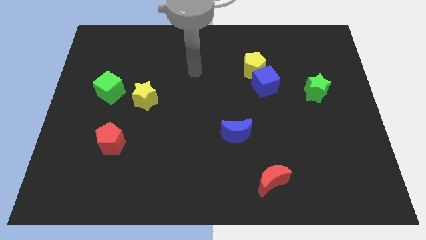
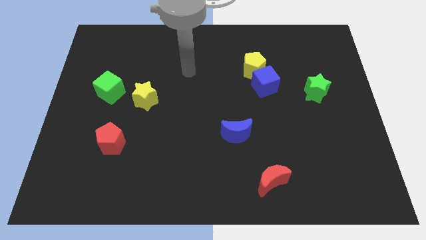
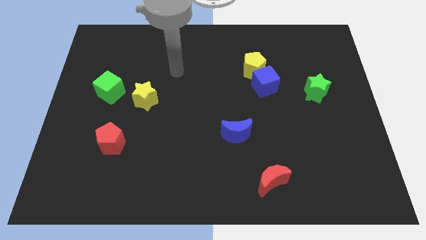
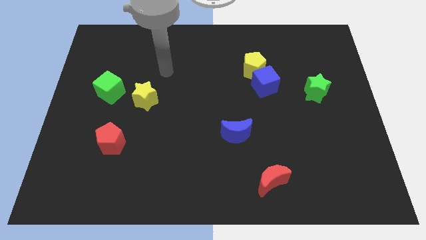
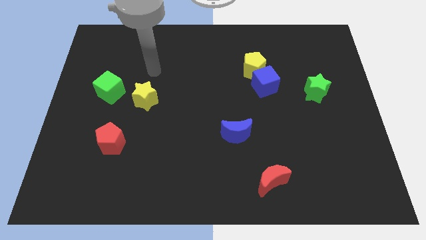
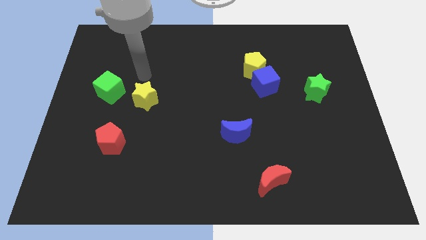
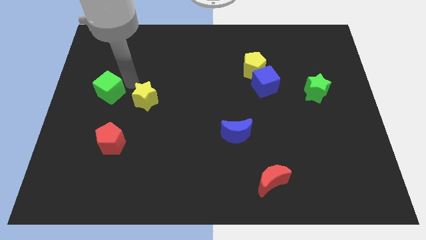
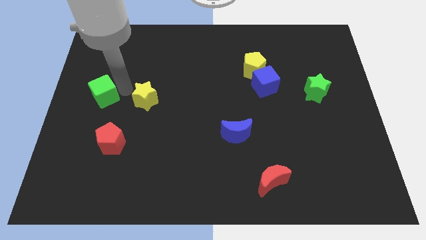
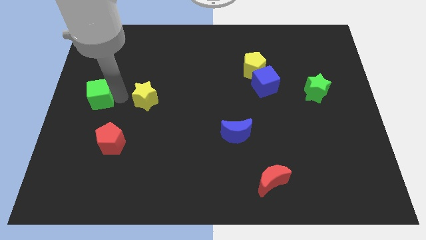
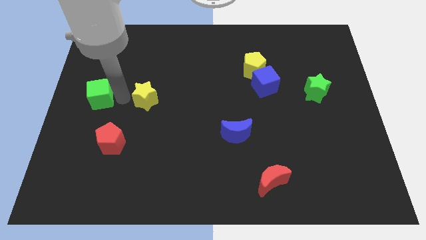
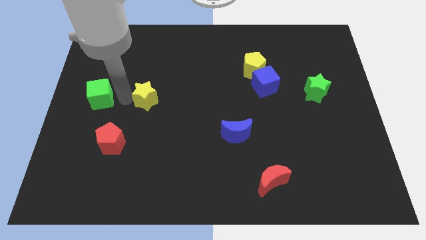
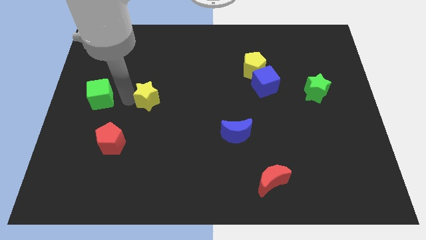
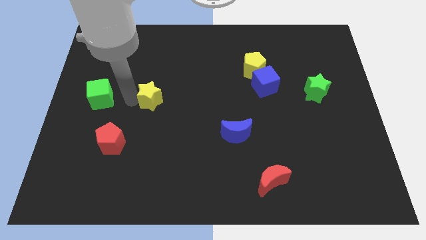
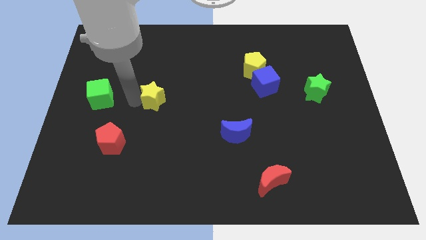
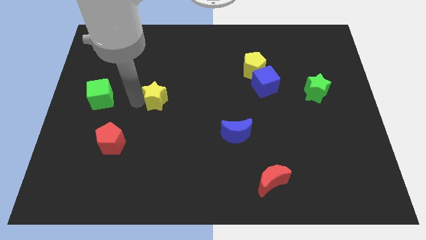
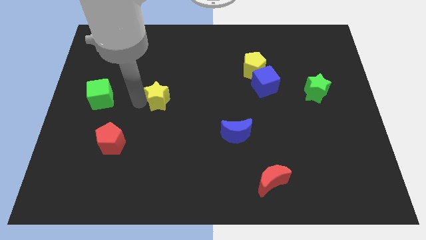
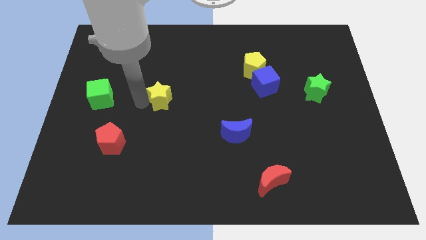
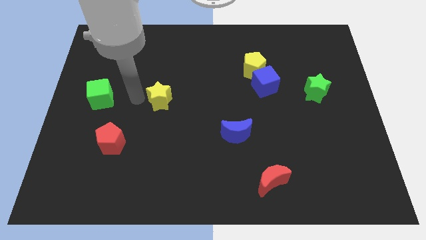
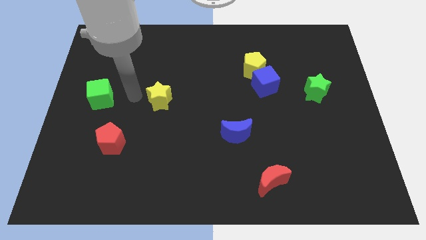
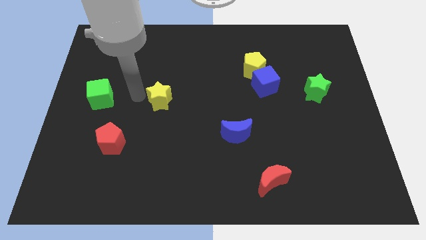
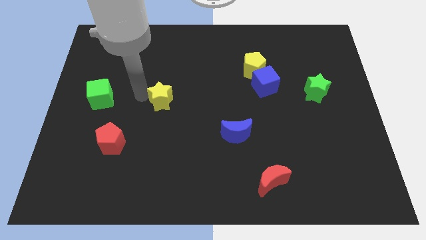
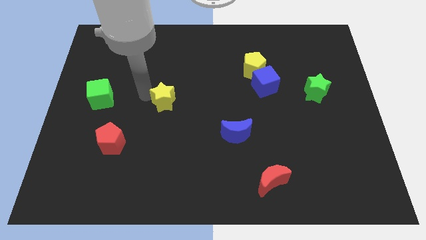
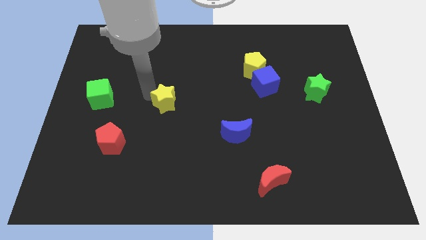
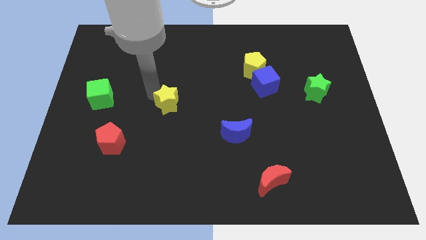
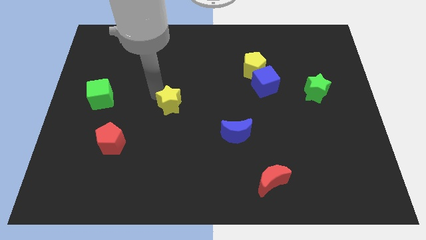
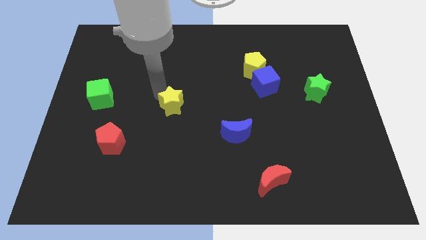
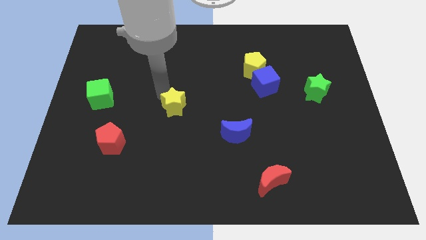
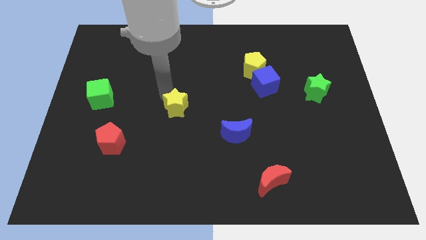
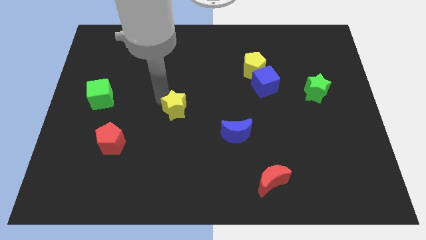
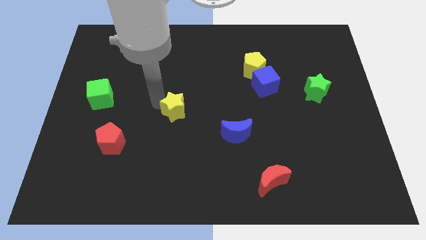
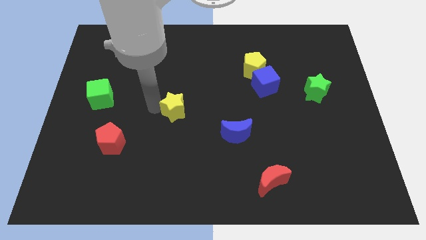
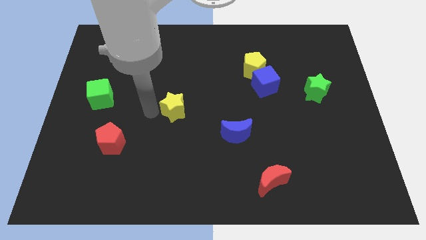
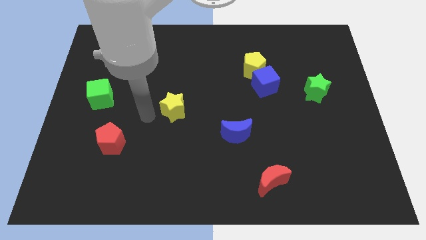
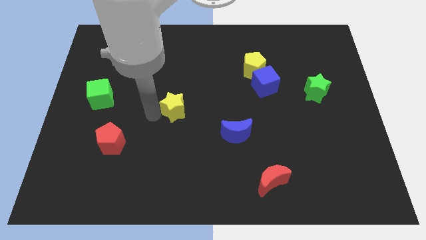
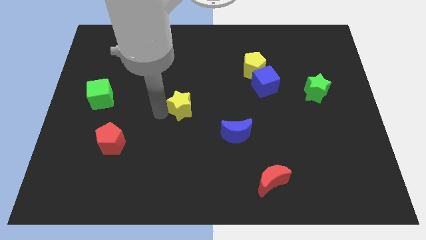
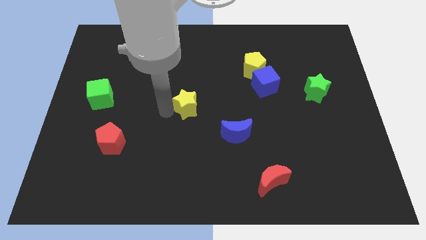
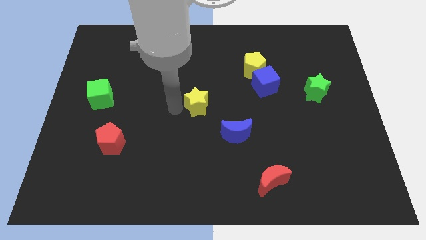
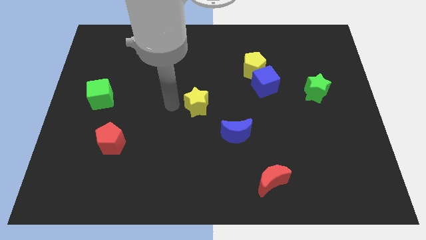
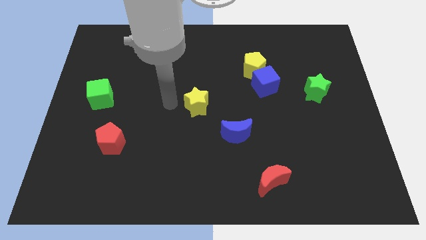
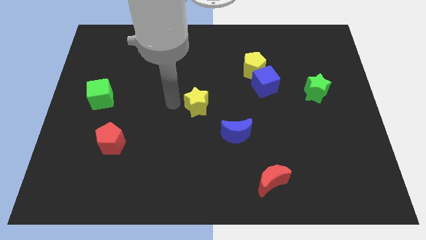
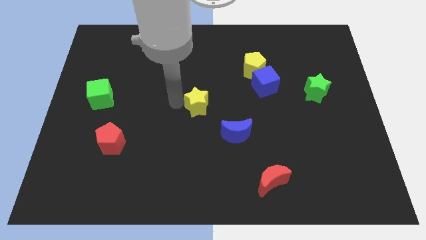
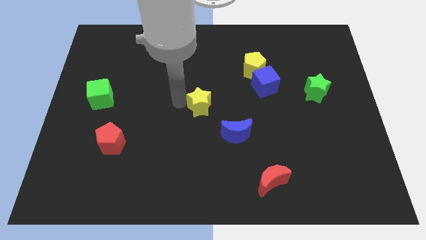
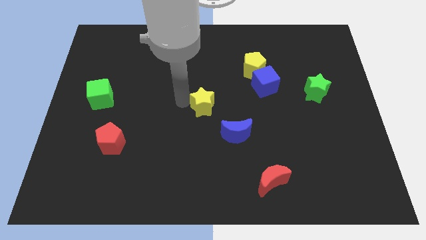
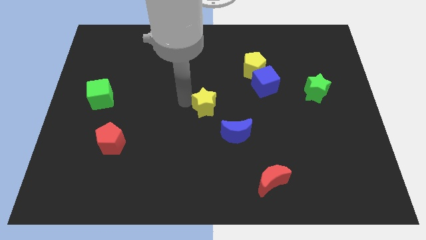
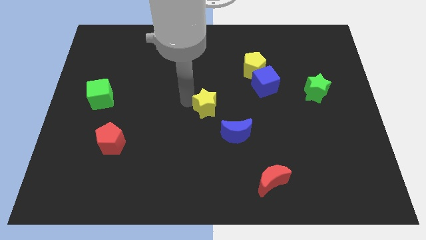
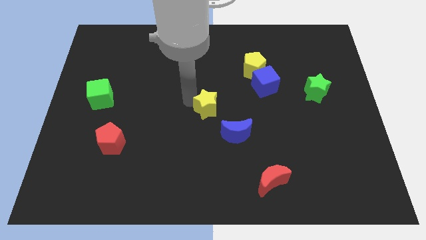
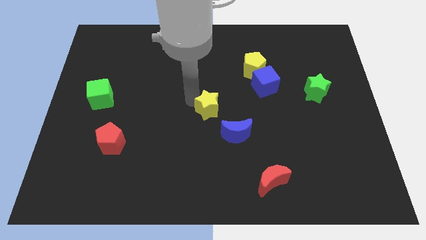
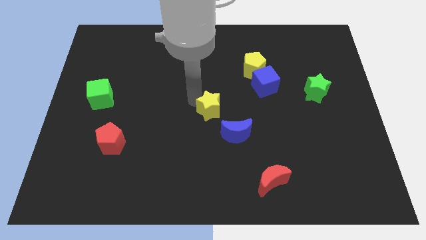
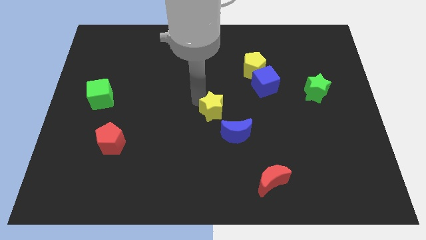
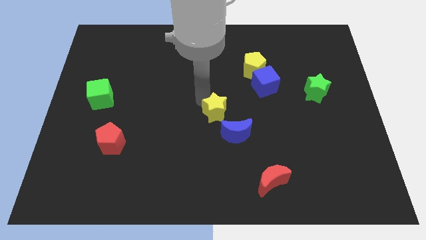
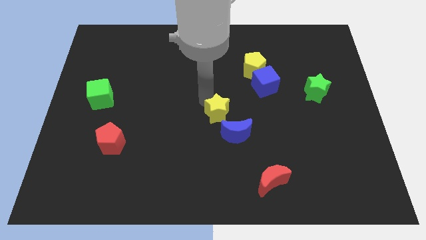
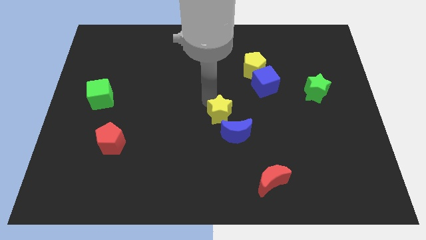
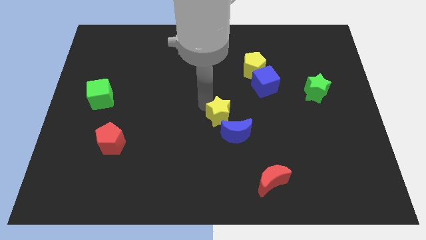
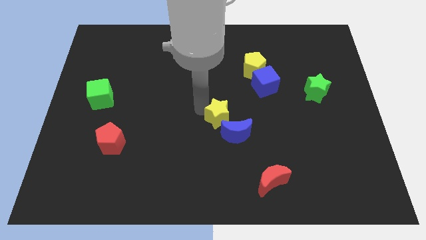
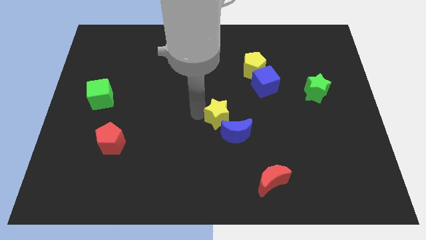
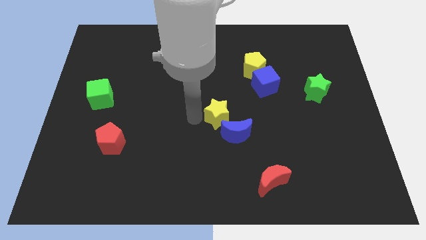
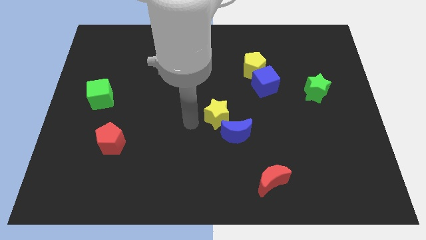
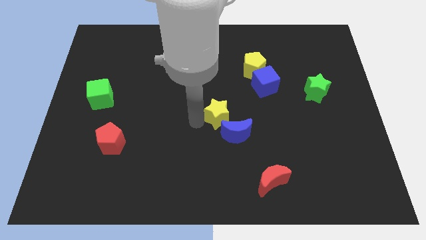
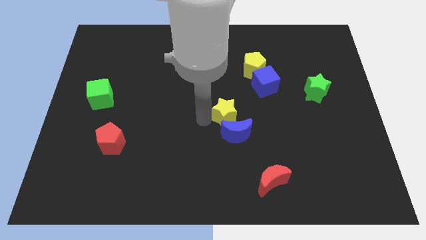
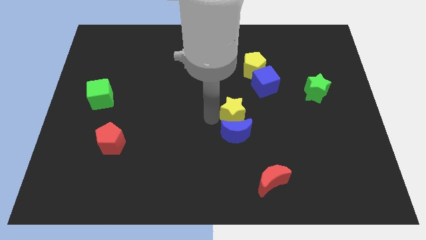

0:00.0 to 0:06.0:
move the yellow star to the right

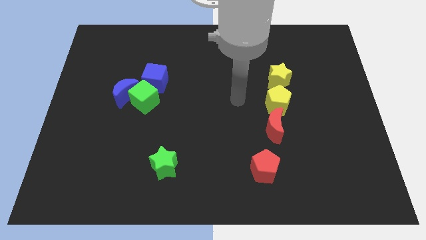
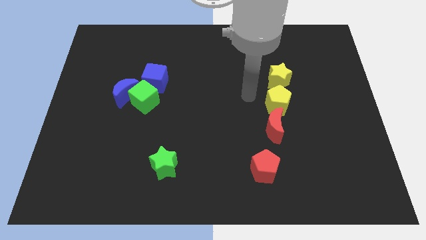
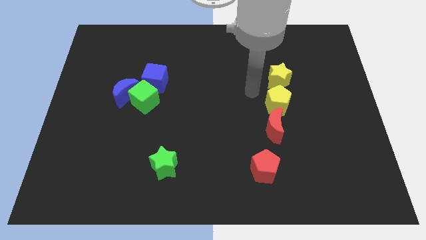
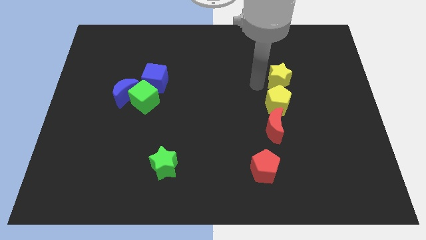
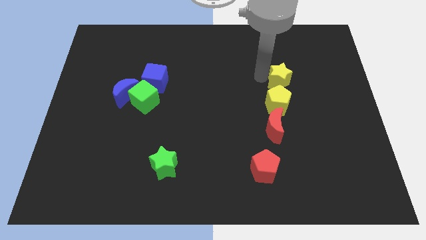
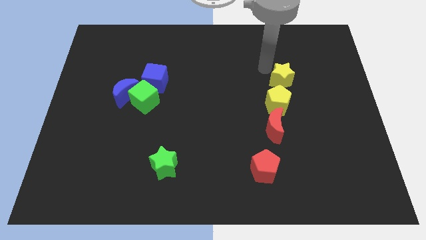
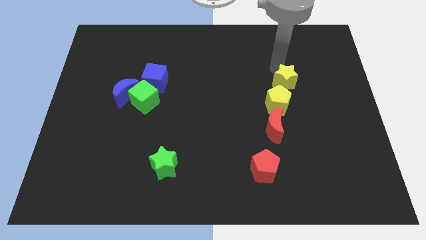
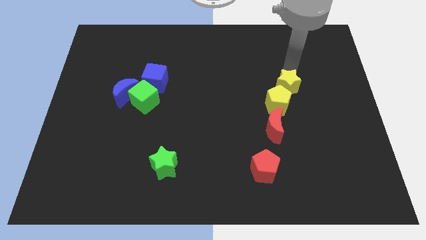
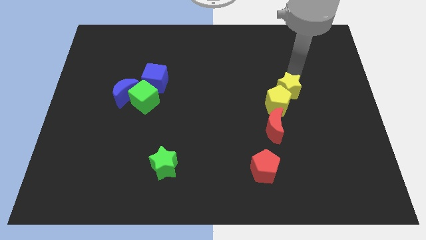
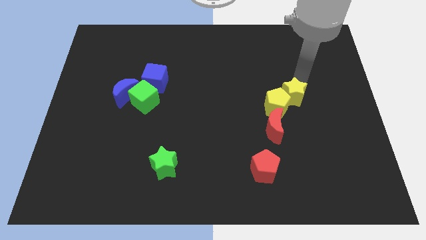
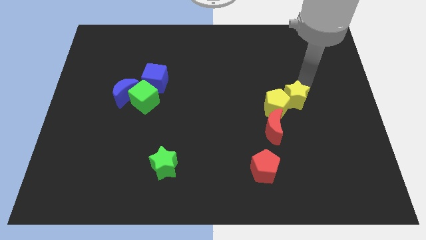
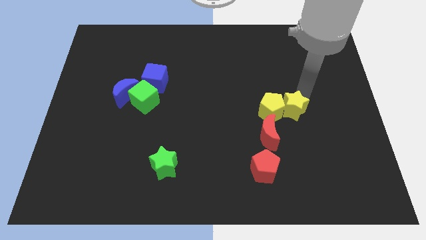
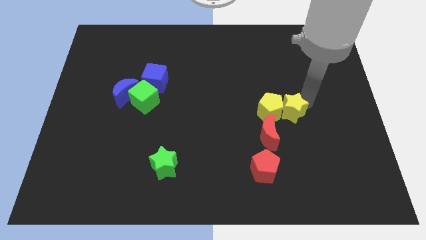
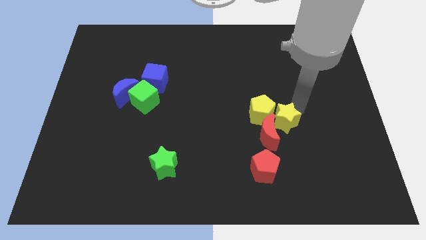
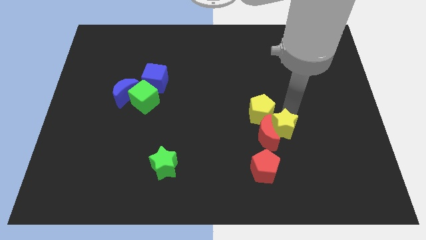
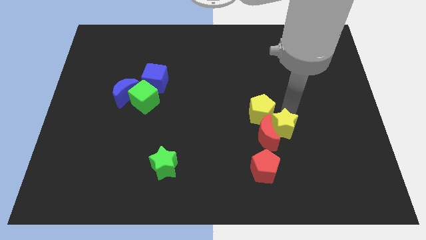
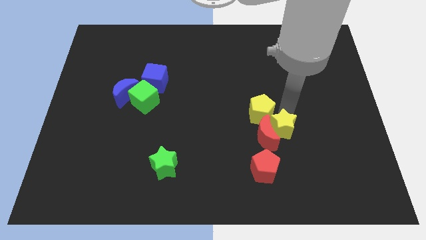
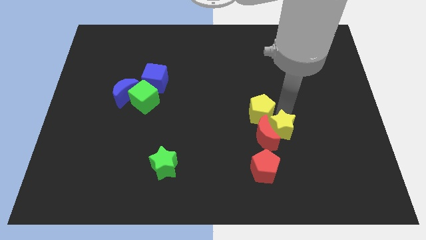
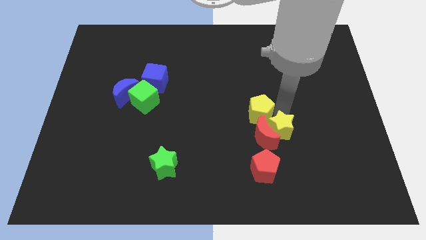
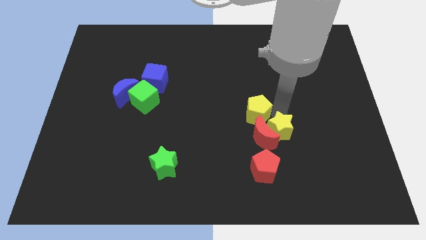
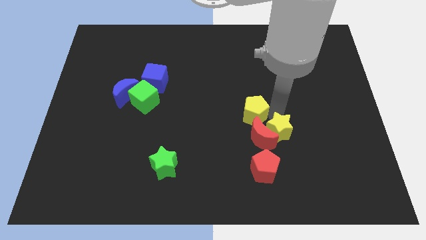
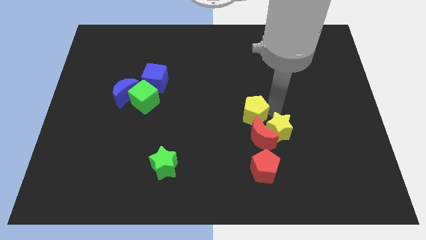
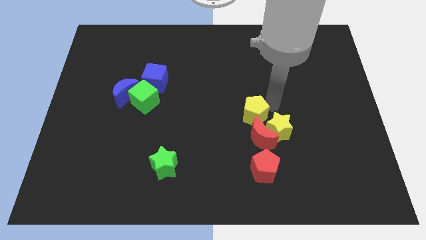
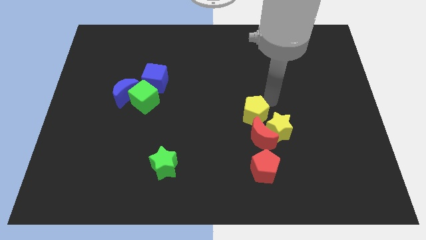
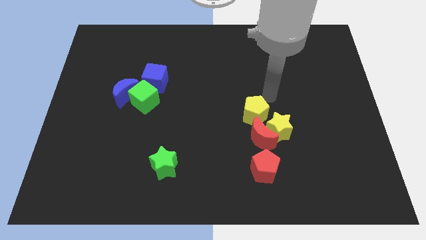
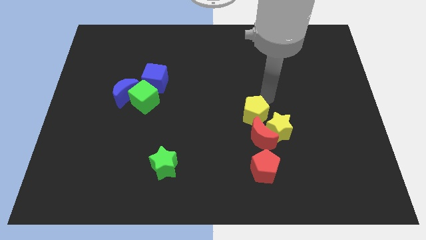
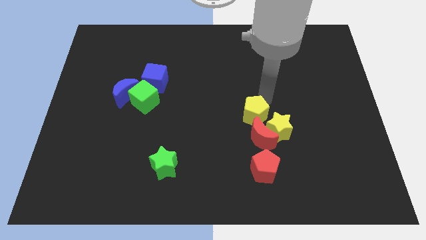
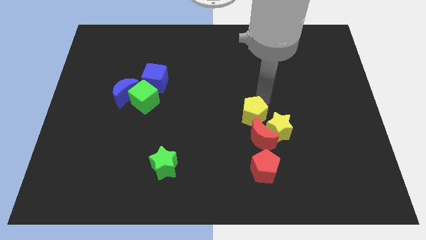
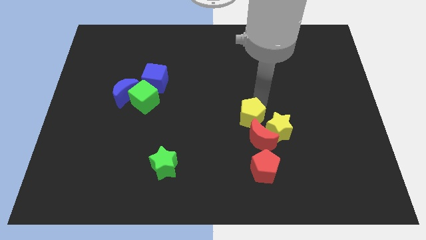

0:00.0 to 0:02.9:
slide the yellow pentagon down and left slightly
